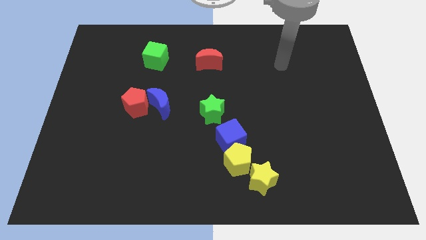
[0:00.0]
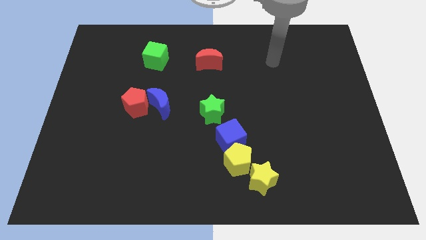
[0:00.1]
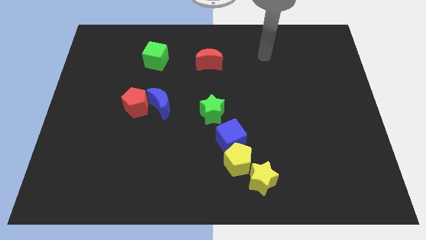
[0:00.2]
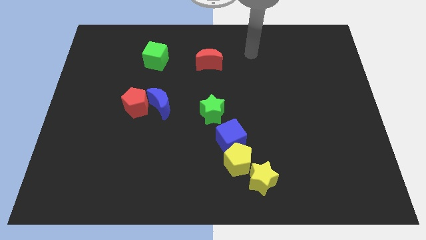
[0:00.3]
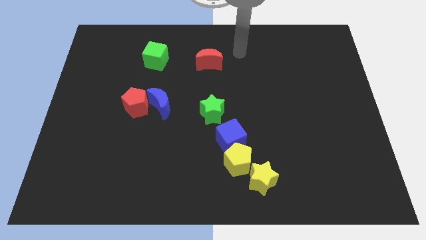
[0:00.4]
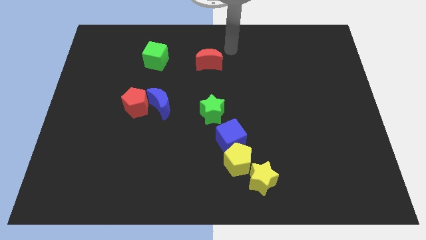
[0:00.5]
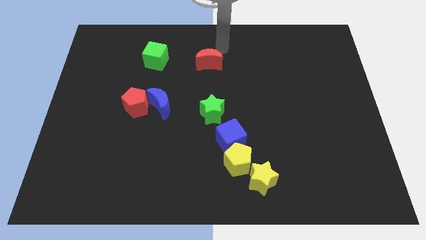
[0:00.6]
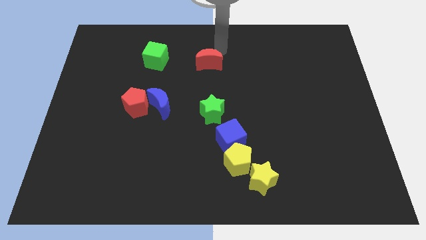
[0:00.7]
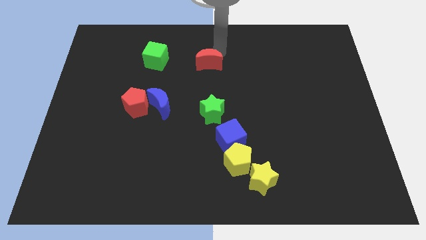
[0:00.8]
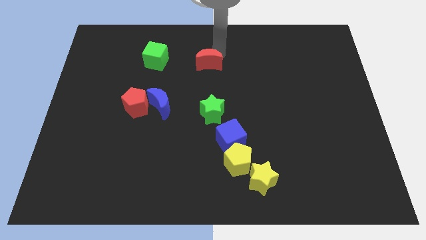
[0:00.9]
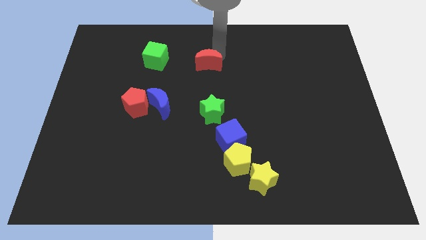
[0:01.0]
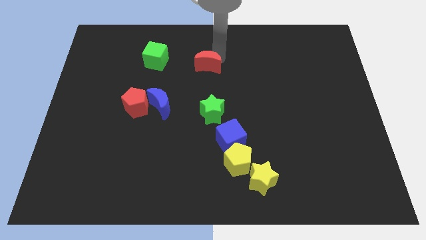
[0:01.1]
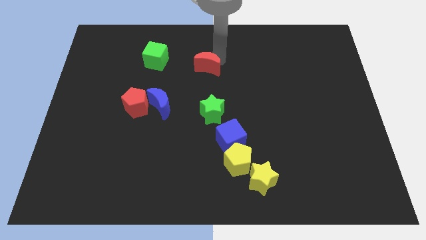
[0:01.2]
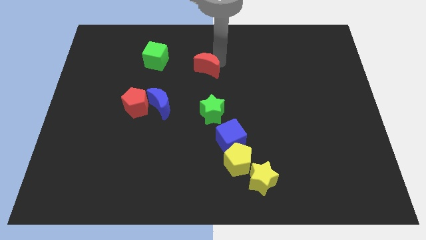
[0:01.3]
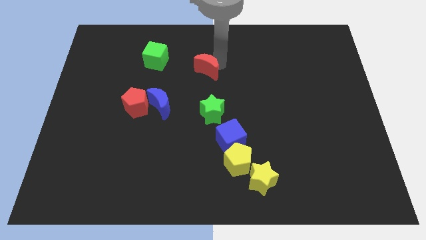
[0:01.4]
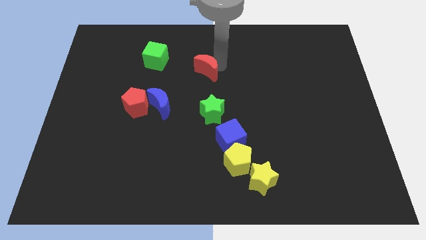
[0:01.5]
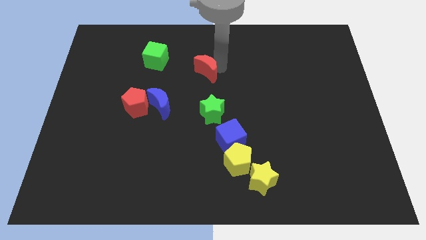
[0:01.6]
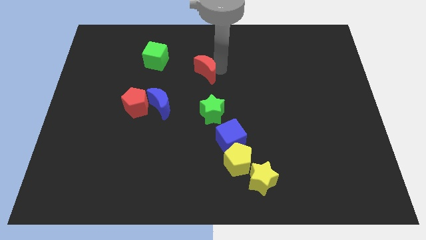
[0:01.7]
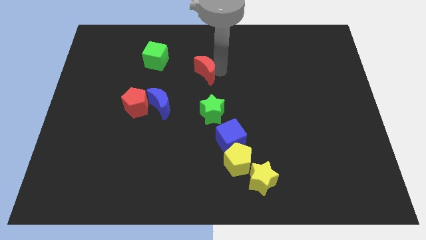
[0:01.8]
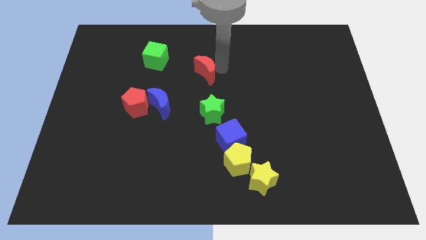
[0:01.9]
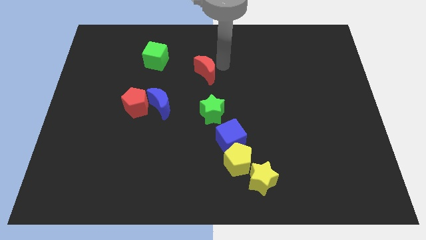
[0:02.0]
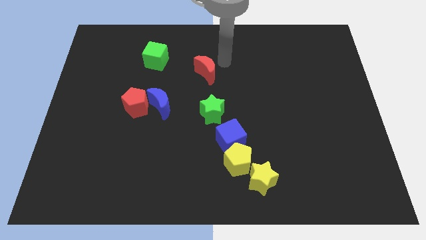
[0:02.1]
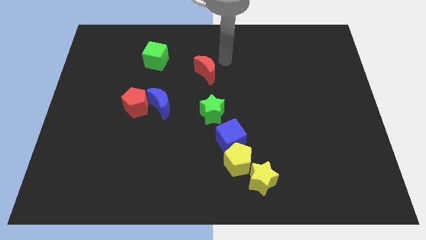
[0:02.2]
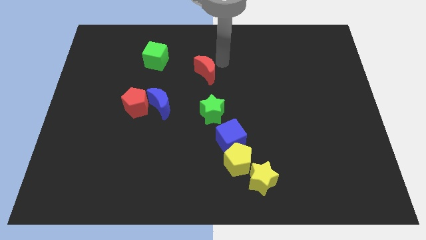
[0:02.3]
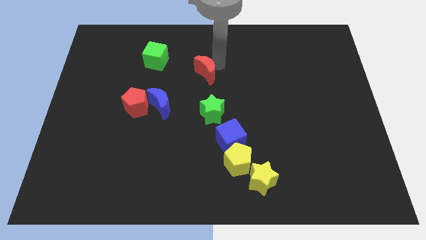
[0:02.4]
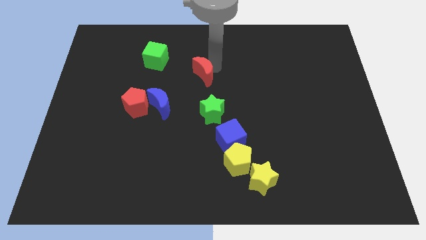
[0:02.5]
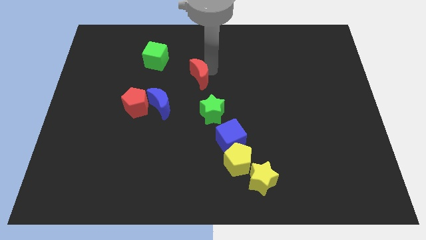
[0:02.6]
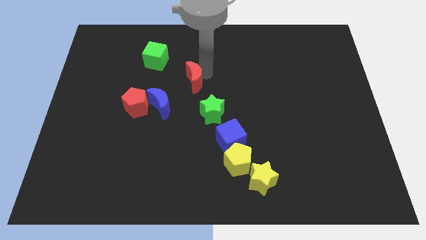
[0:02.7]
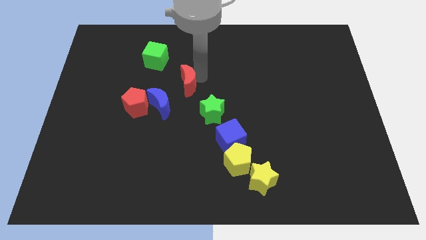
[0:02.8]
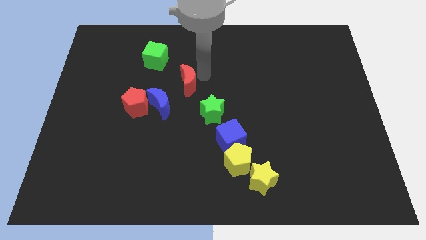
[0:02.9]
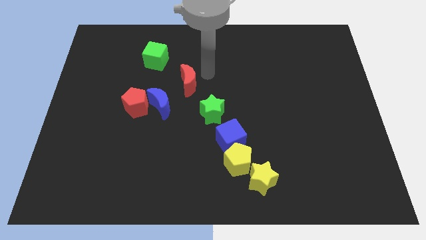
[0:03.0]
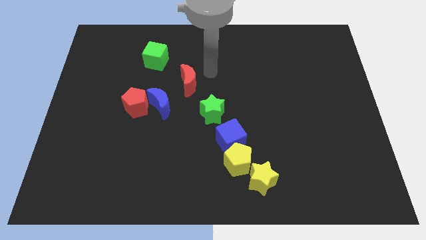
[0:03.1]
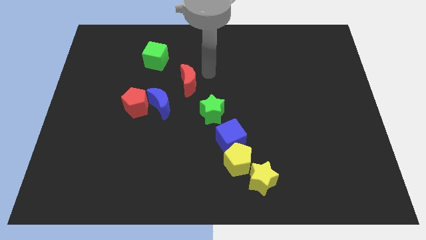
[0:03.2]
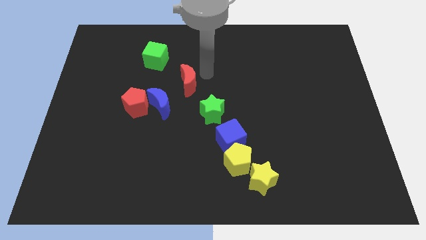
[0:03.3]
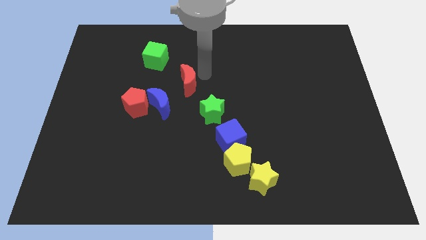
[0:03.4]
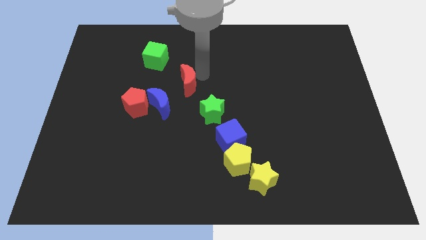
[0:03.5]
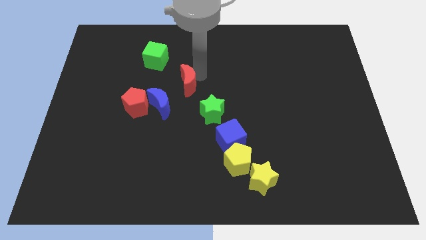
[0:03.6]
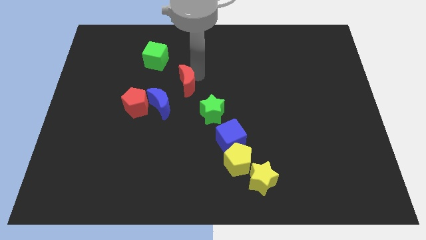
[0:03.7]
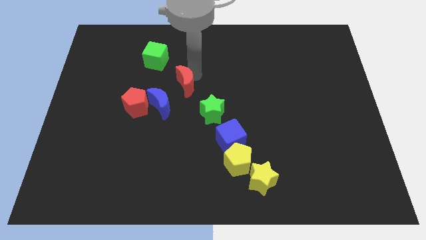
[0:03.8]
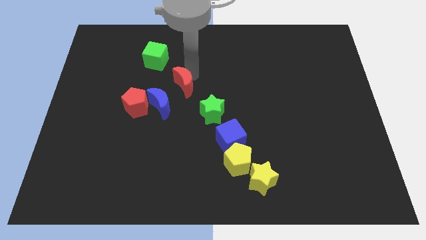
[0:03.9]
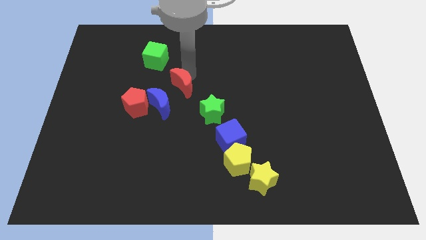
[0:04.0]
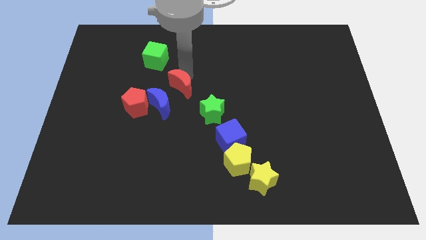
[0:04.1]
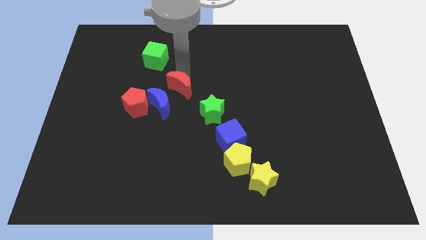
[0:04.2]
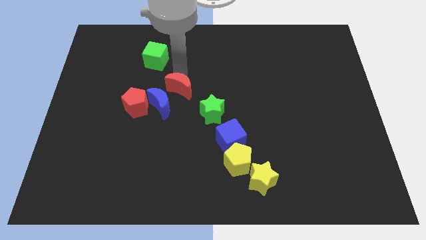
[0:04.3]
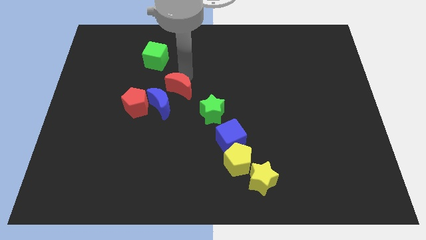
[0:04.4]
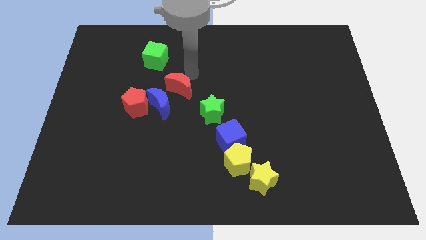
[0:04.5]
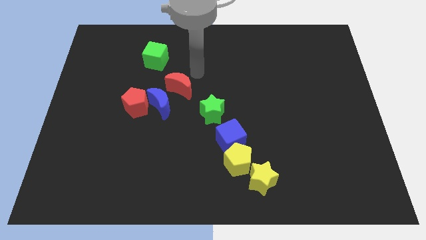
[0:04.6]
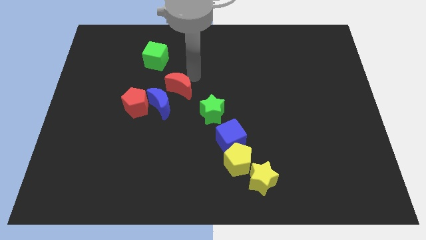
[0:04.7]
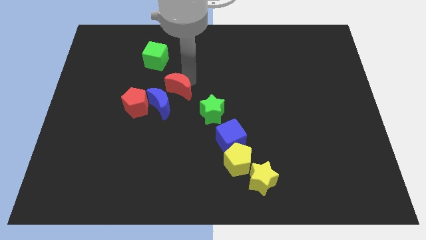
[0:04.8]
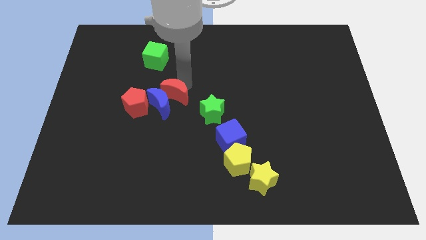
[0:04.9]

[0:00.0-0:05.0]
push the red moon to the blue moon

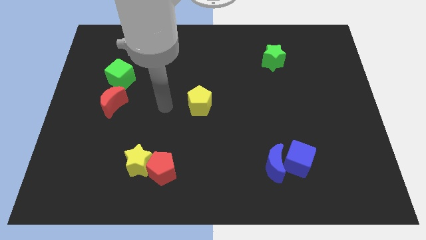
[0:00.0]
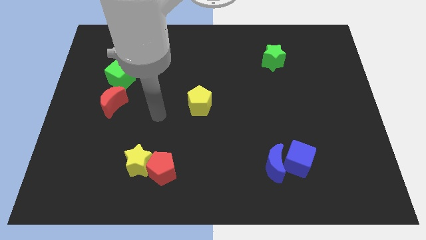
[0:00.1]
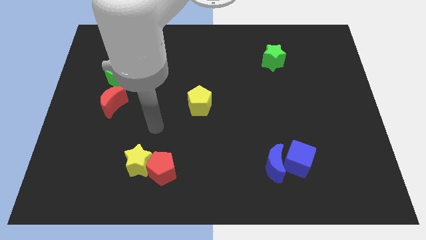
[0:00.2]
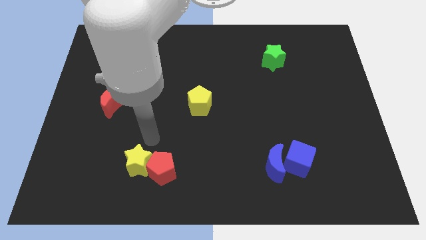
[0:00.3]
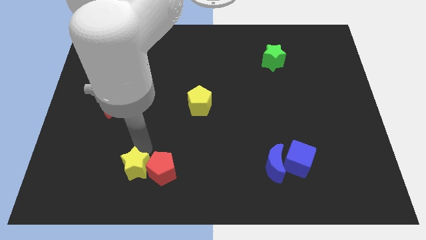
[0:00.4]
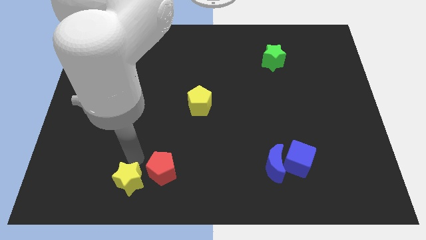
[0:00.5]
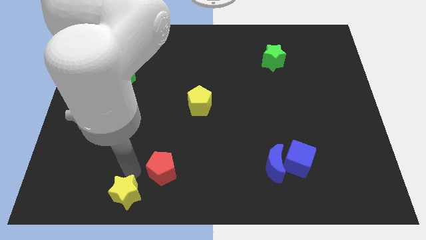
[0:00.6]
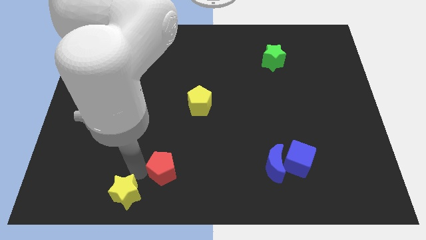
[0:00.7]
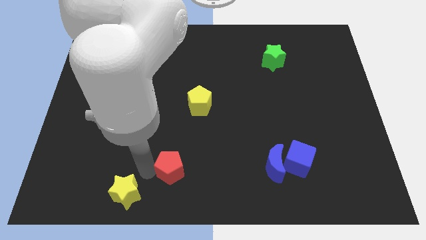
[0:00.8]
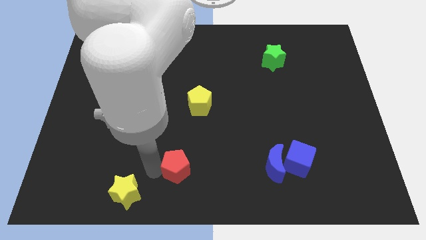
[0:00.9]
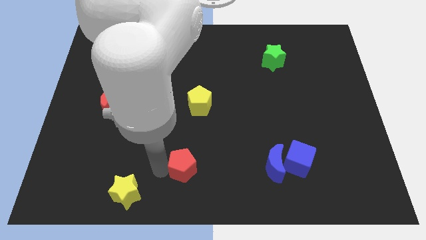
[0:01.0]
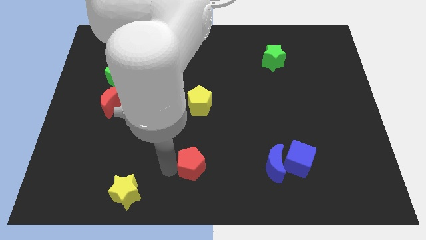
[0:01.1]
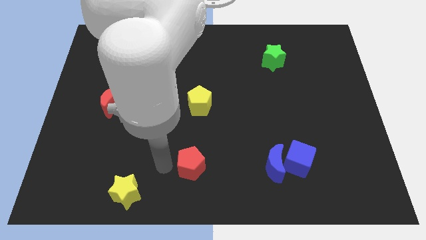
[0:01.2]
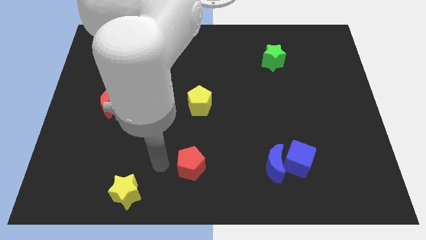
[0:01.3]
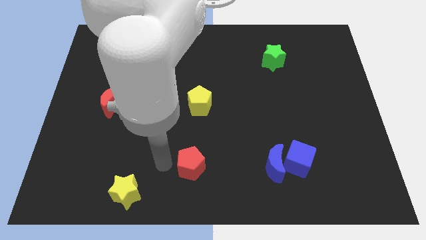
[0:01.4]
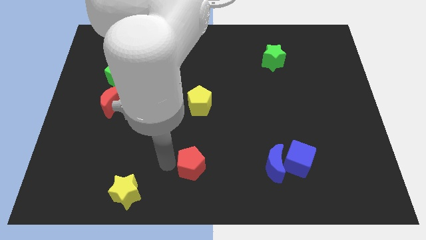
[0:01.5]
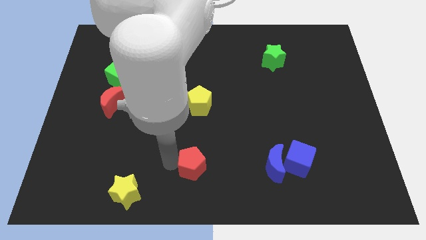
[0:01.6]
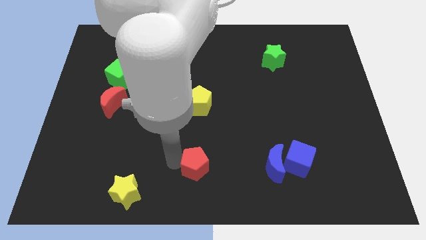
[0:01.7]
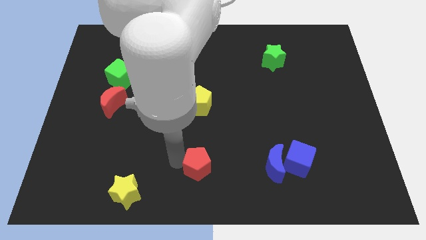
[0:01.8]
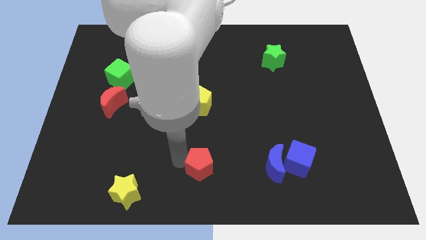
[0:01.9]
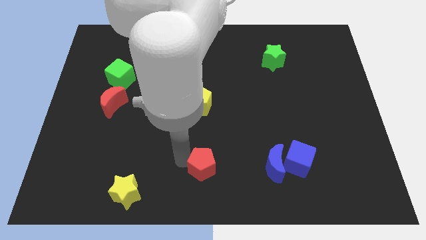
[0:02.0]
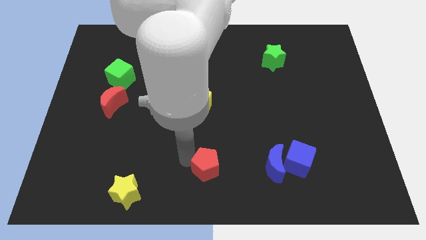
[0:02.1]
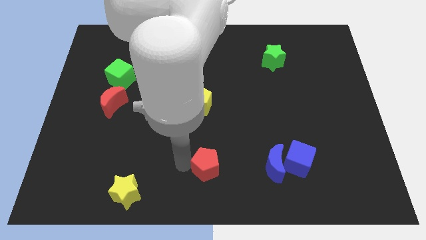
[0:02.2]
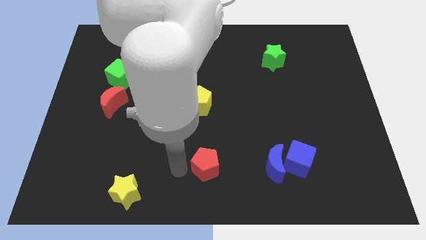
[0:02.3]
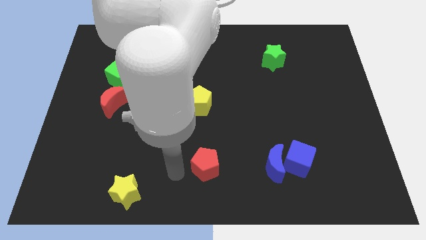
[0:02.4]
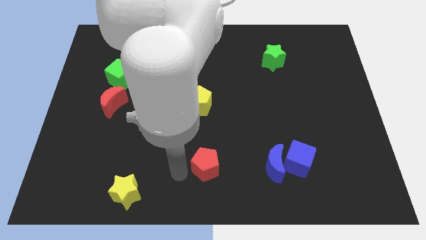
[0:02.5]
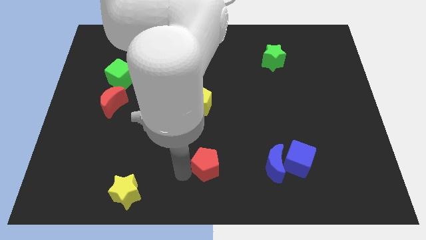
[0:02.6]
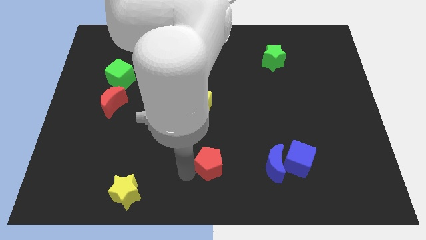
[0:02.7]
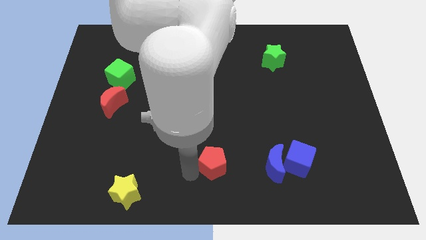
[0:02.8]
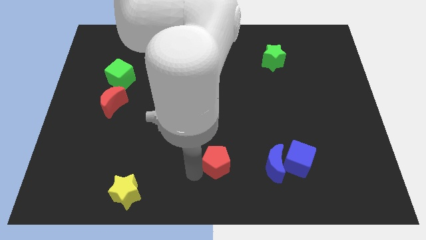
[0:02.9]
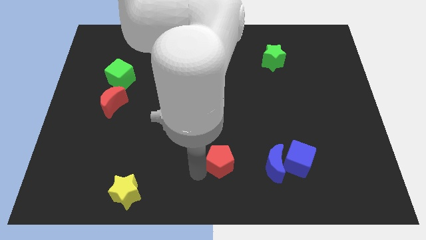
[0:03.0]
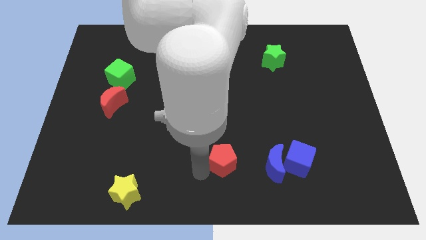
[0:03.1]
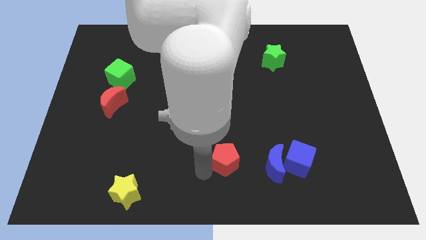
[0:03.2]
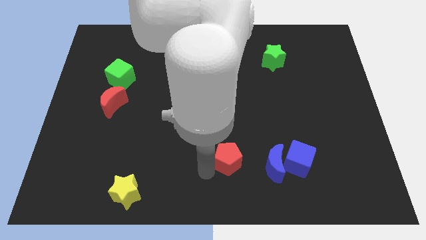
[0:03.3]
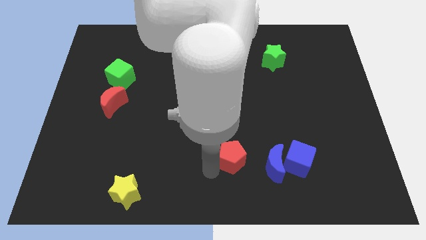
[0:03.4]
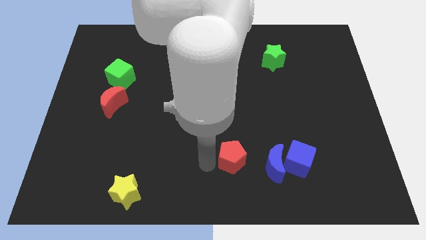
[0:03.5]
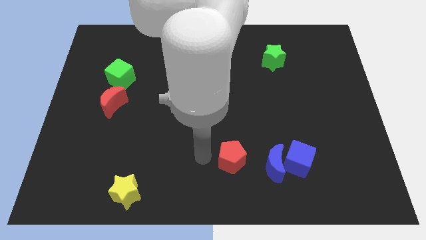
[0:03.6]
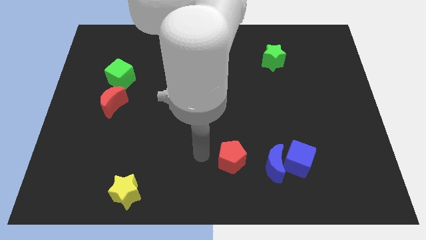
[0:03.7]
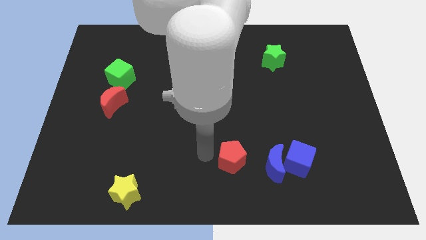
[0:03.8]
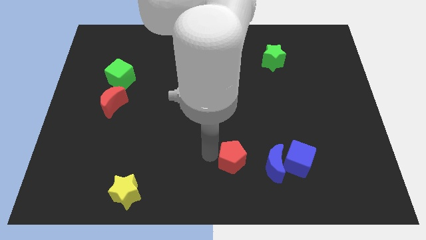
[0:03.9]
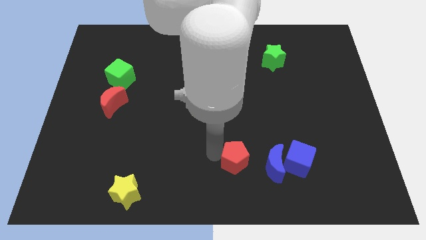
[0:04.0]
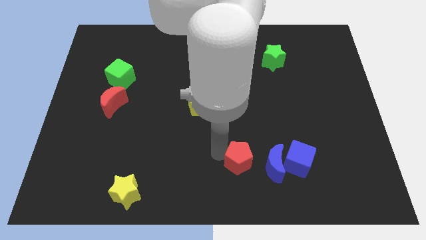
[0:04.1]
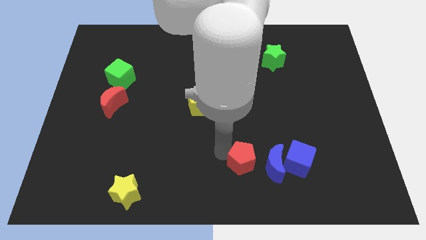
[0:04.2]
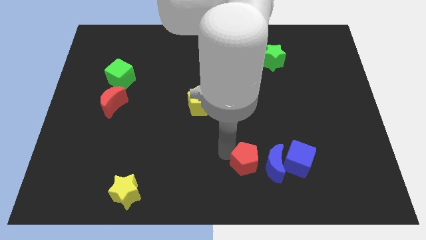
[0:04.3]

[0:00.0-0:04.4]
move the red pentagon towards the blue moon
